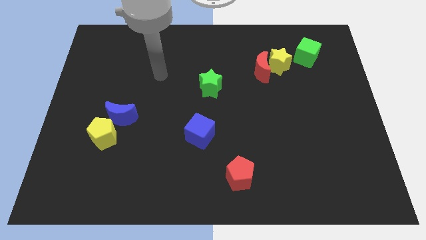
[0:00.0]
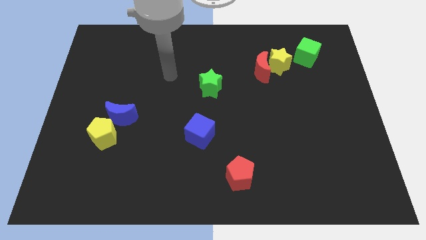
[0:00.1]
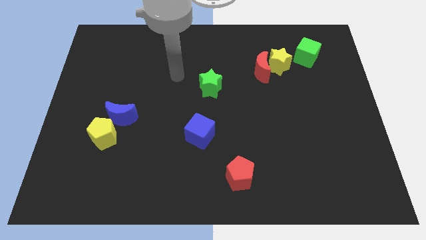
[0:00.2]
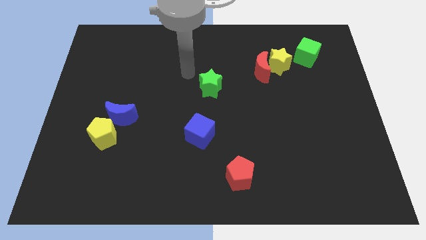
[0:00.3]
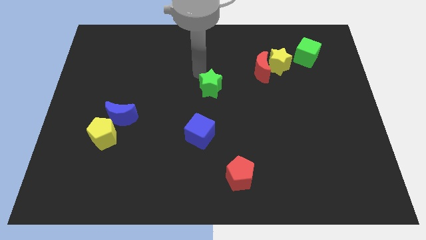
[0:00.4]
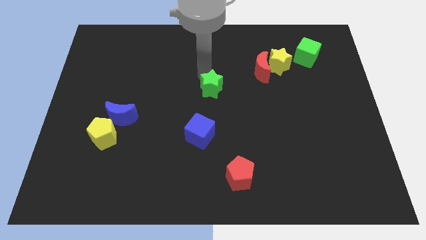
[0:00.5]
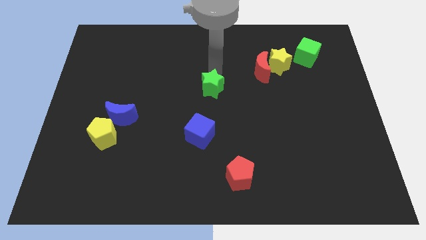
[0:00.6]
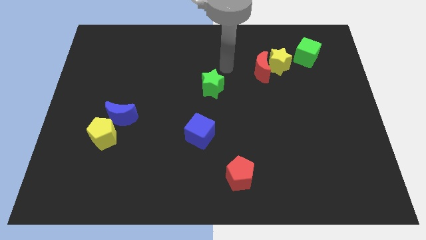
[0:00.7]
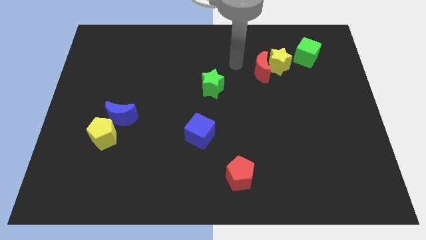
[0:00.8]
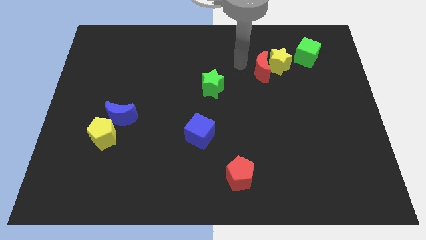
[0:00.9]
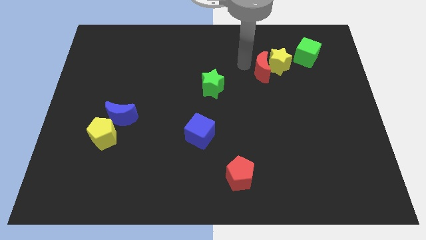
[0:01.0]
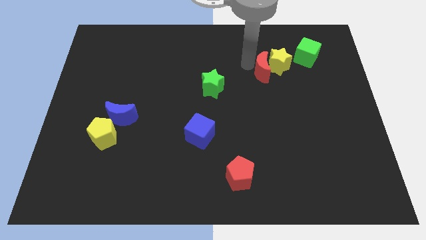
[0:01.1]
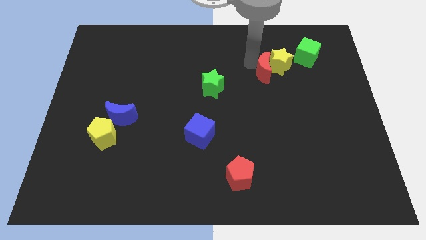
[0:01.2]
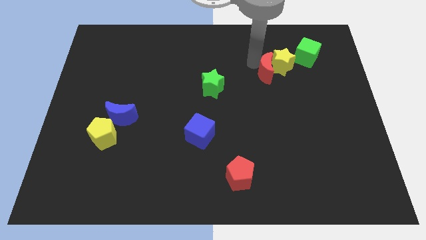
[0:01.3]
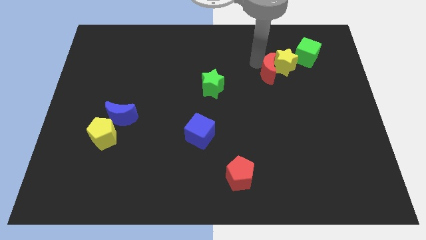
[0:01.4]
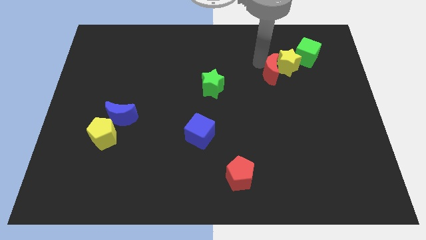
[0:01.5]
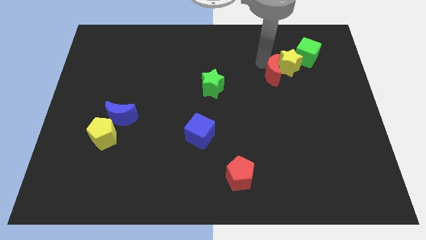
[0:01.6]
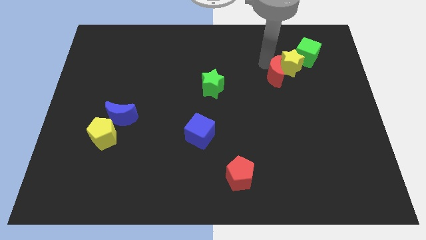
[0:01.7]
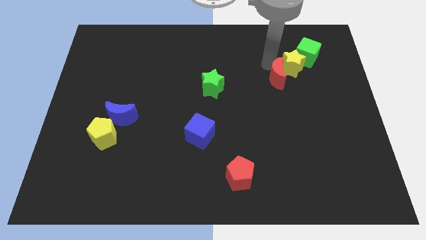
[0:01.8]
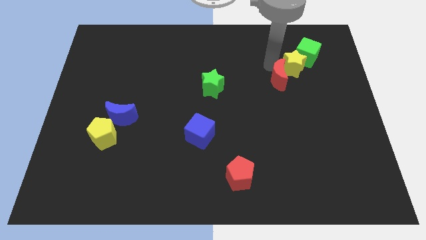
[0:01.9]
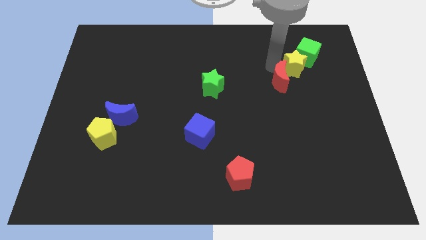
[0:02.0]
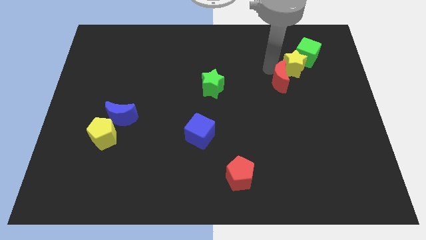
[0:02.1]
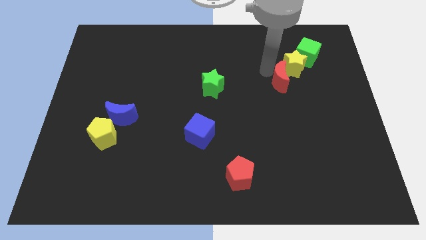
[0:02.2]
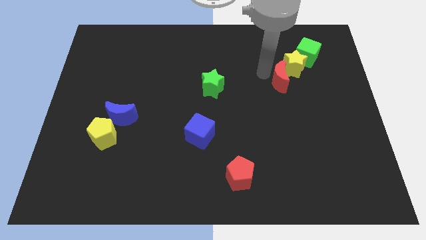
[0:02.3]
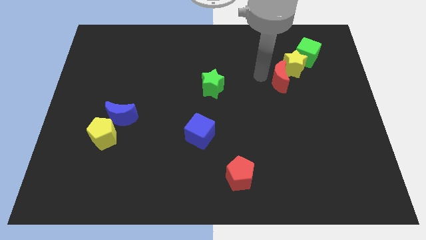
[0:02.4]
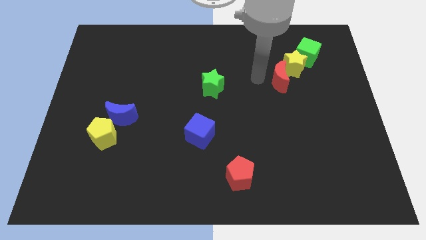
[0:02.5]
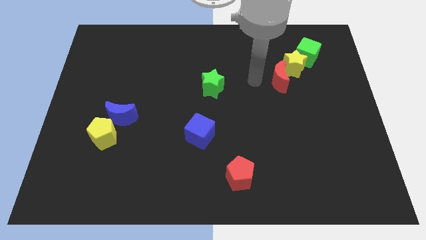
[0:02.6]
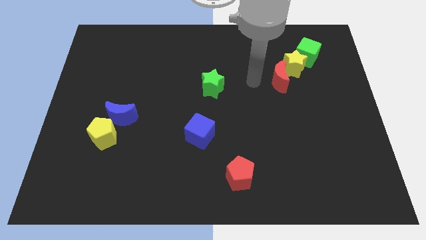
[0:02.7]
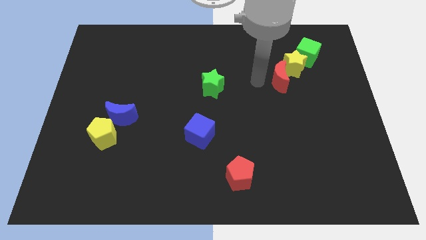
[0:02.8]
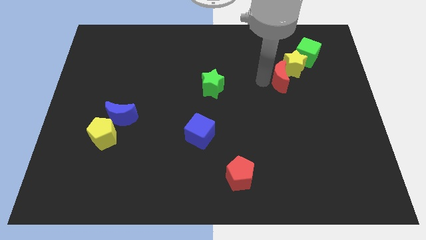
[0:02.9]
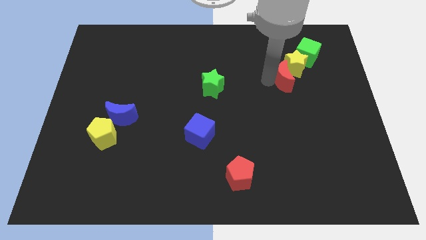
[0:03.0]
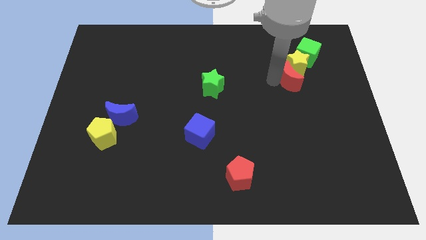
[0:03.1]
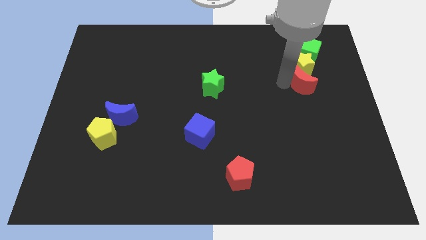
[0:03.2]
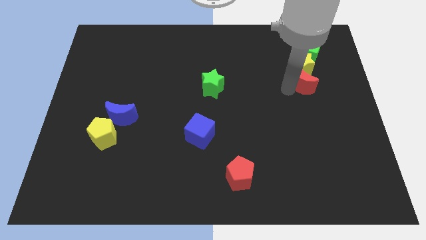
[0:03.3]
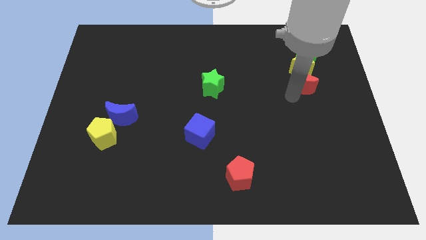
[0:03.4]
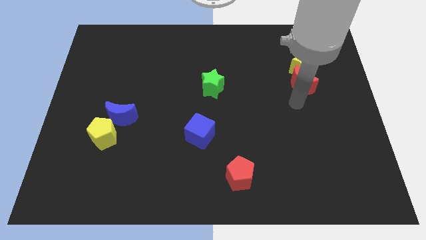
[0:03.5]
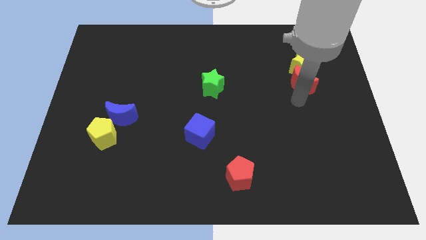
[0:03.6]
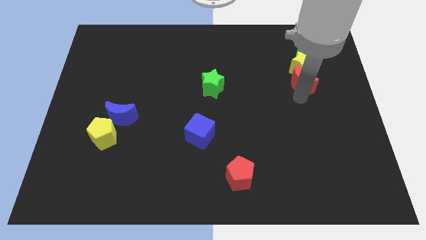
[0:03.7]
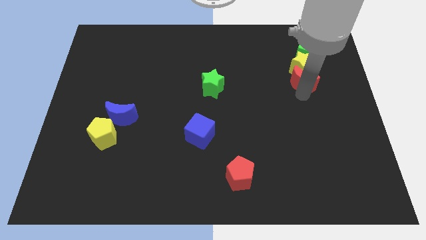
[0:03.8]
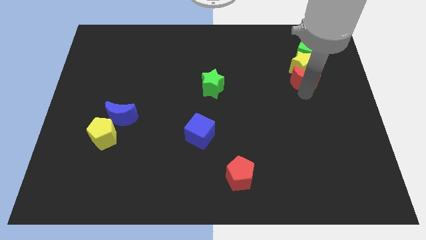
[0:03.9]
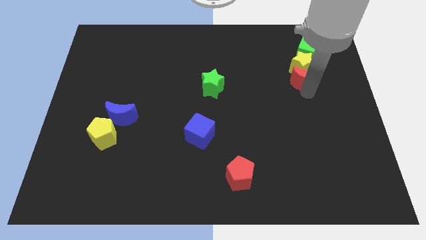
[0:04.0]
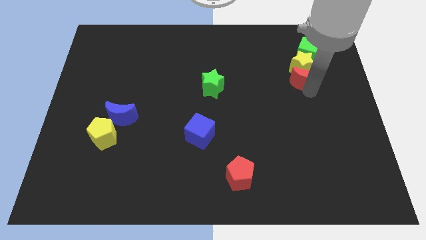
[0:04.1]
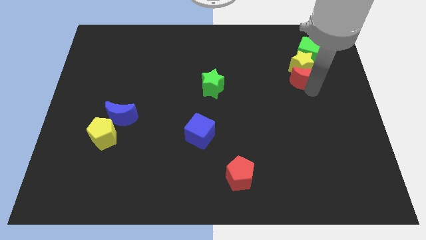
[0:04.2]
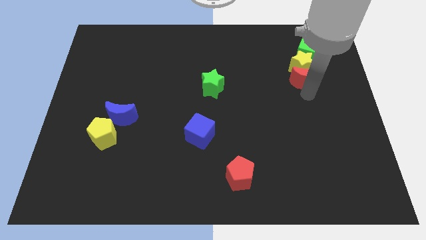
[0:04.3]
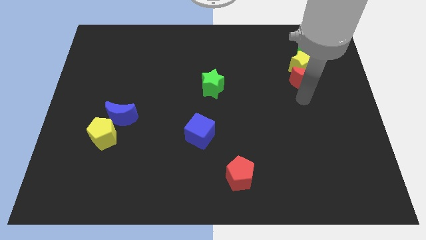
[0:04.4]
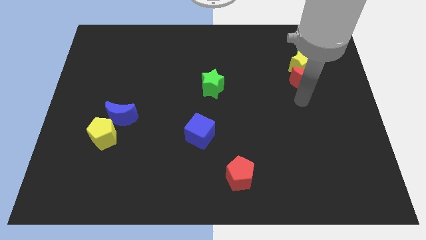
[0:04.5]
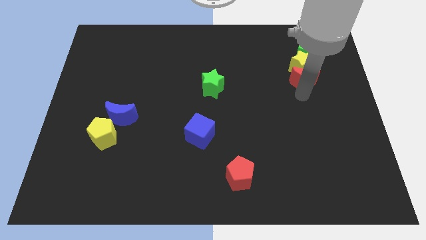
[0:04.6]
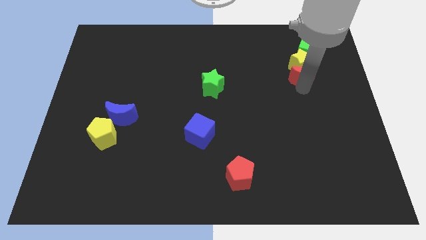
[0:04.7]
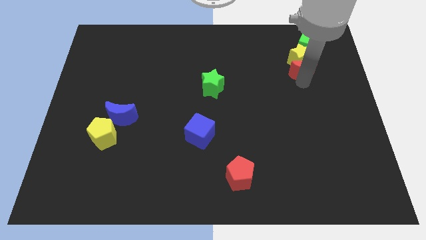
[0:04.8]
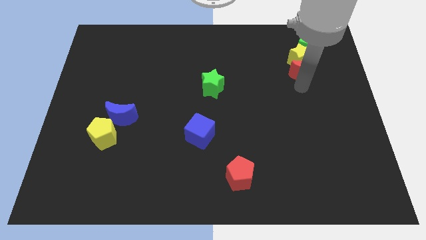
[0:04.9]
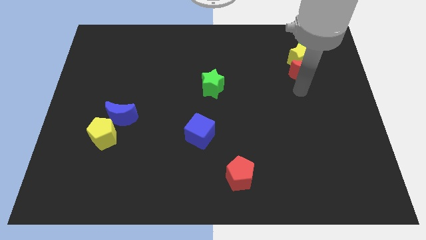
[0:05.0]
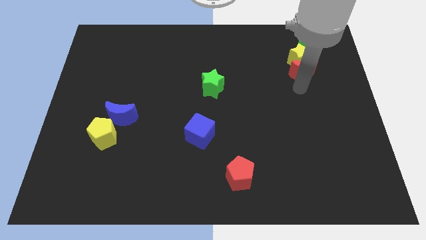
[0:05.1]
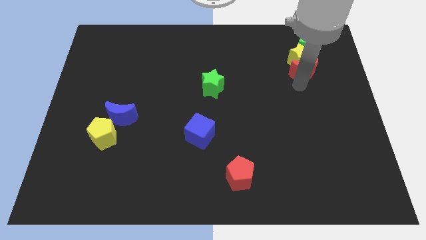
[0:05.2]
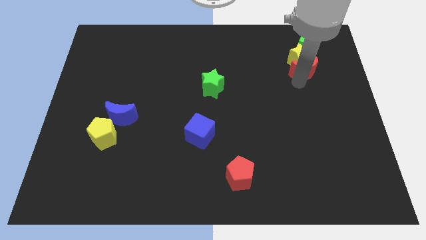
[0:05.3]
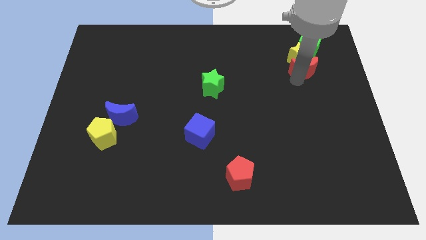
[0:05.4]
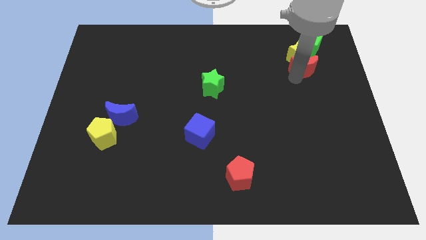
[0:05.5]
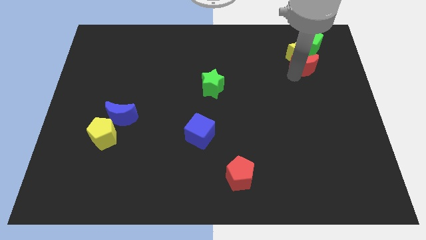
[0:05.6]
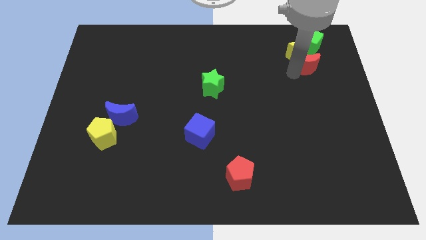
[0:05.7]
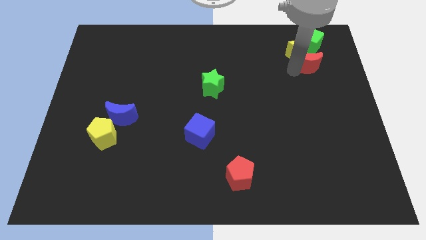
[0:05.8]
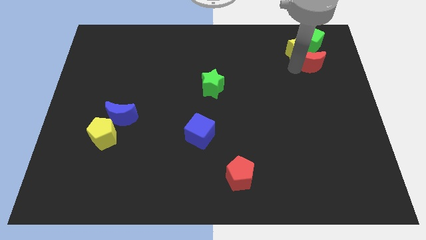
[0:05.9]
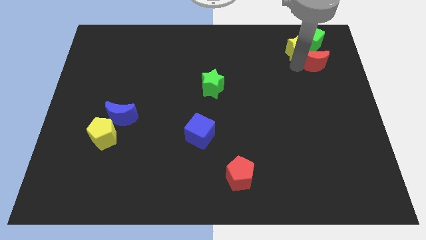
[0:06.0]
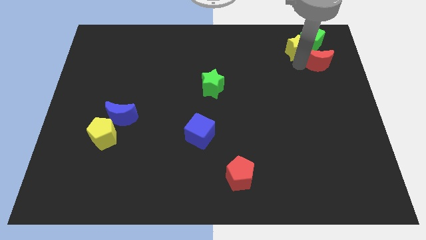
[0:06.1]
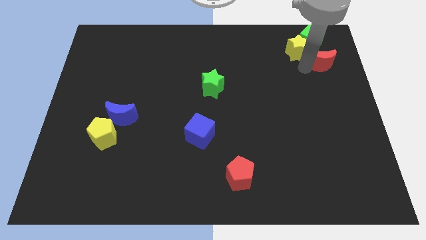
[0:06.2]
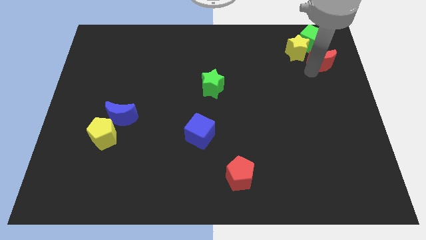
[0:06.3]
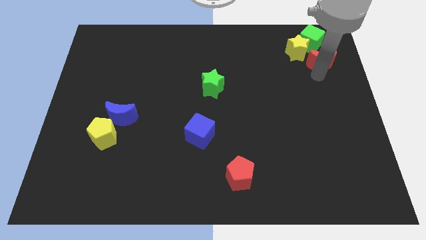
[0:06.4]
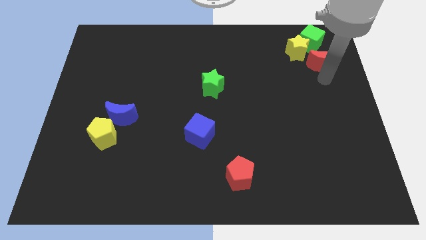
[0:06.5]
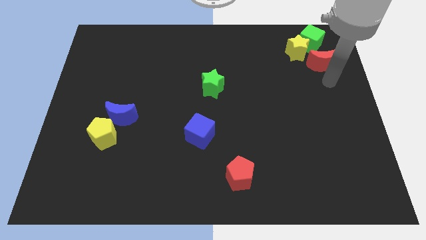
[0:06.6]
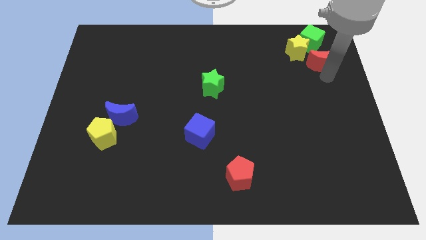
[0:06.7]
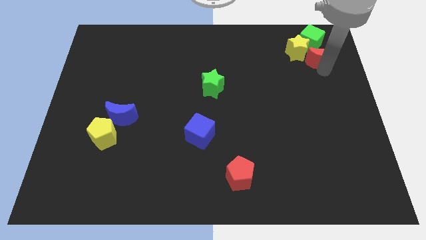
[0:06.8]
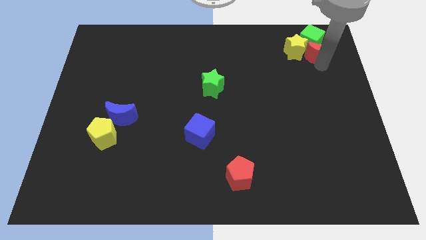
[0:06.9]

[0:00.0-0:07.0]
put the red moon next to the green cube

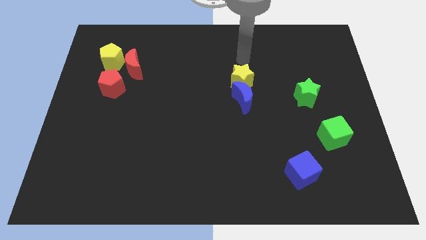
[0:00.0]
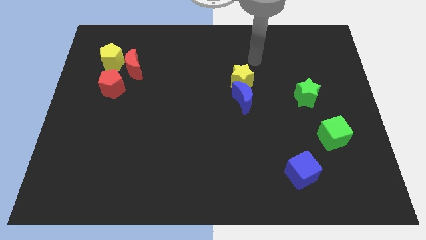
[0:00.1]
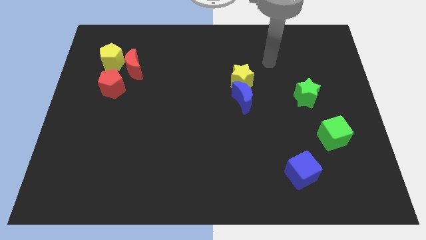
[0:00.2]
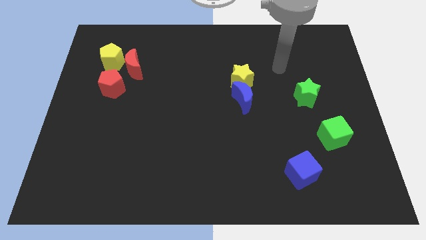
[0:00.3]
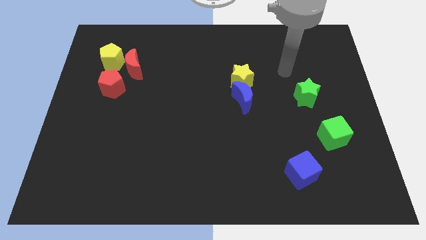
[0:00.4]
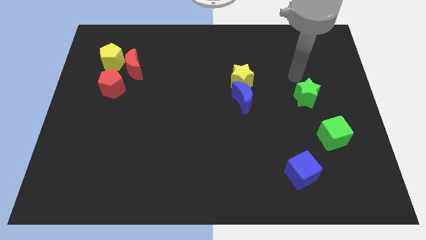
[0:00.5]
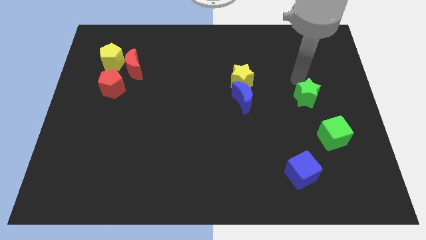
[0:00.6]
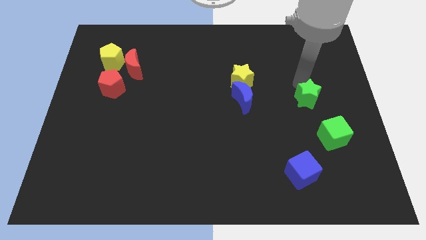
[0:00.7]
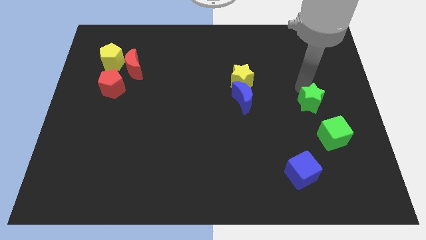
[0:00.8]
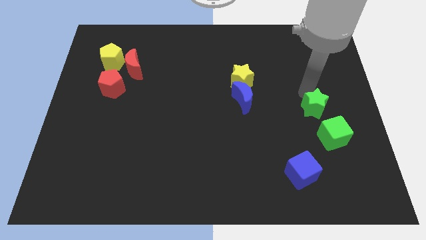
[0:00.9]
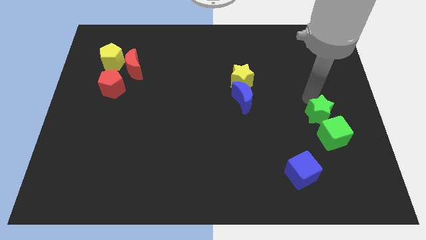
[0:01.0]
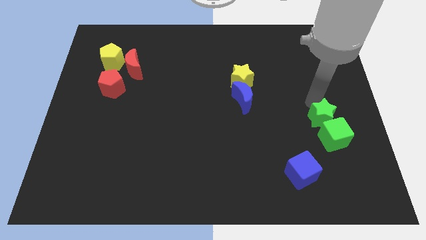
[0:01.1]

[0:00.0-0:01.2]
put the green star to the green cube
